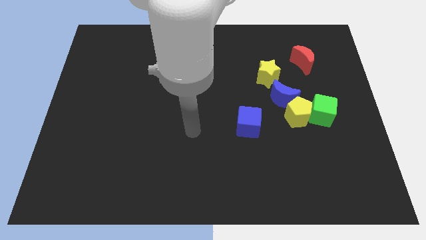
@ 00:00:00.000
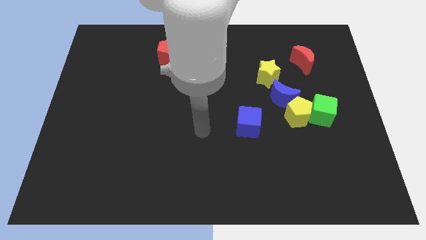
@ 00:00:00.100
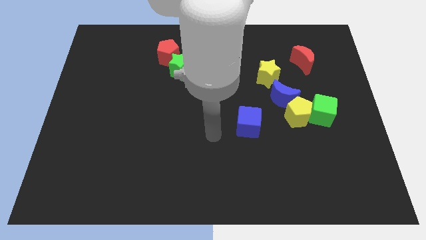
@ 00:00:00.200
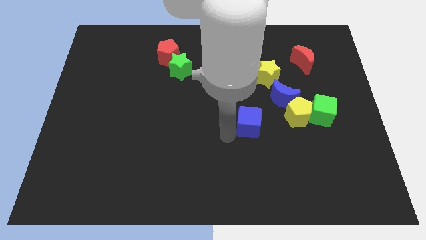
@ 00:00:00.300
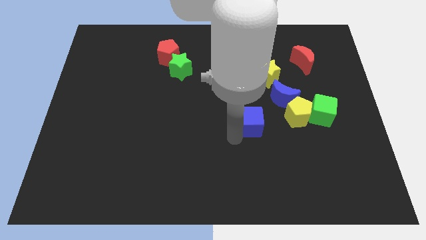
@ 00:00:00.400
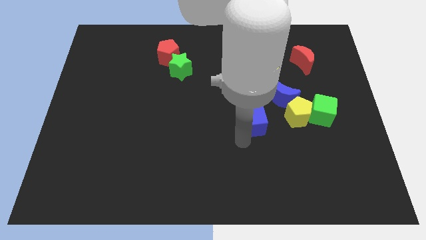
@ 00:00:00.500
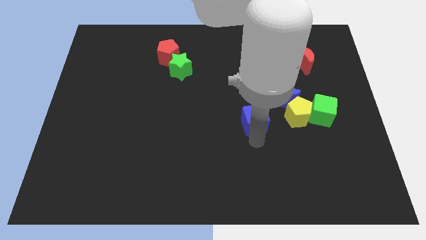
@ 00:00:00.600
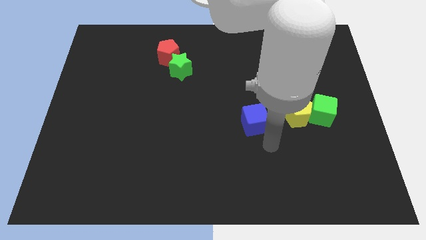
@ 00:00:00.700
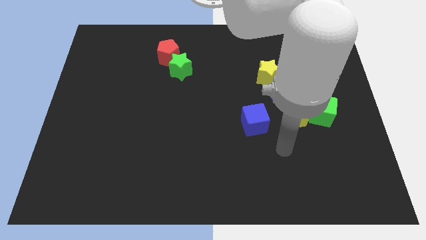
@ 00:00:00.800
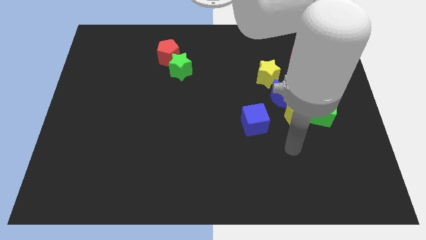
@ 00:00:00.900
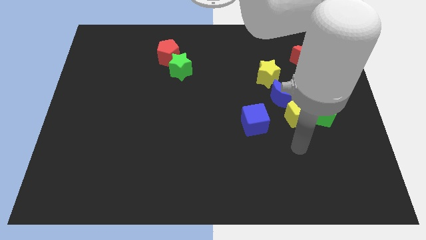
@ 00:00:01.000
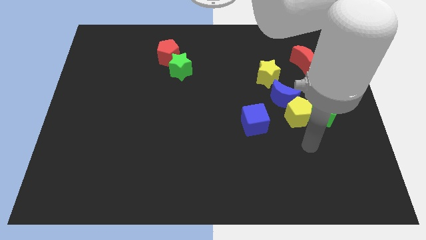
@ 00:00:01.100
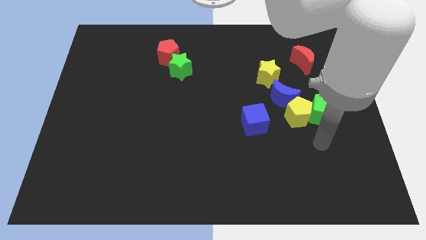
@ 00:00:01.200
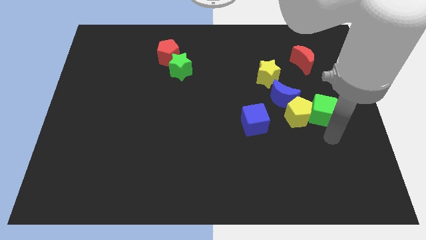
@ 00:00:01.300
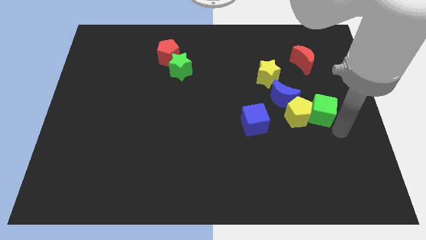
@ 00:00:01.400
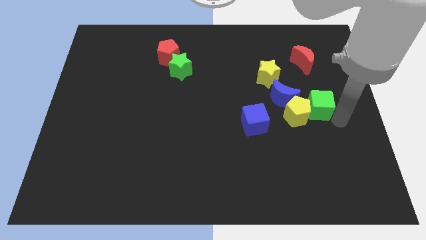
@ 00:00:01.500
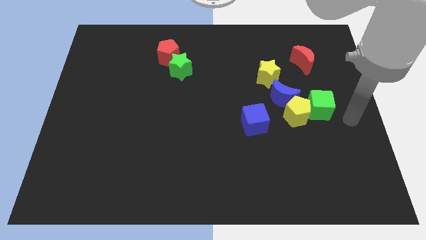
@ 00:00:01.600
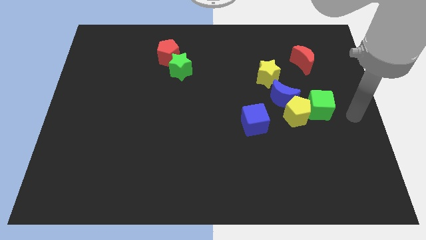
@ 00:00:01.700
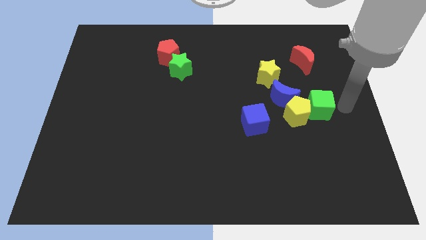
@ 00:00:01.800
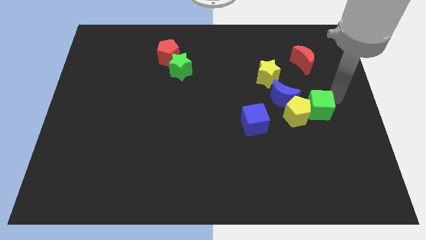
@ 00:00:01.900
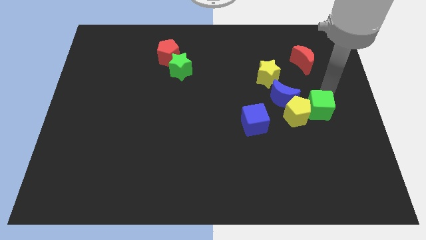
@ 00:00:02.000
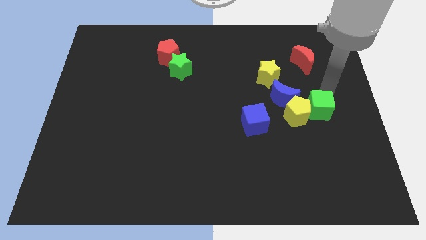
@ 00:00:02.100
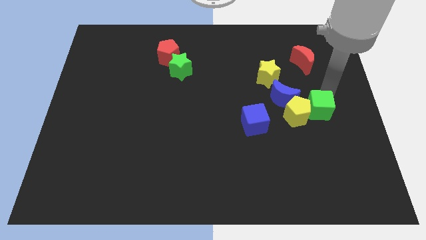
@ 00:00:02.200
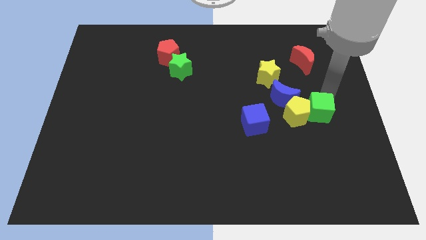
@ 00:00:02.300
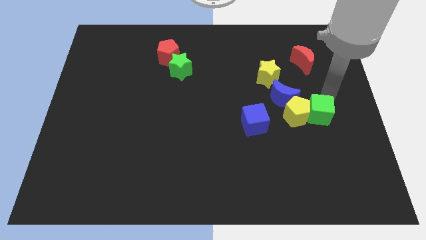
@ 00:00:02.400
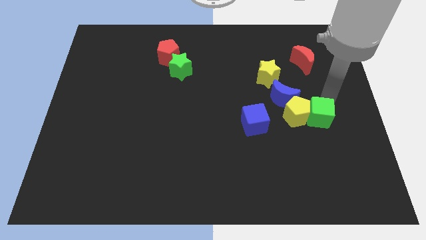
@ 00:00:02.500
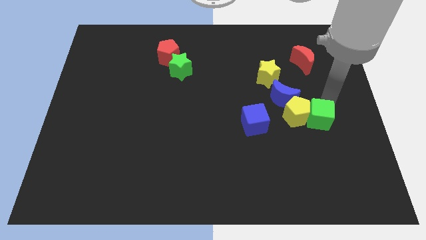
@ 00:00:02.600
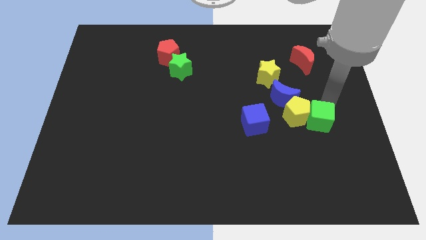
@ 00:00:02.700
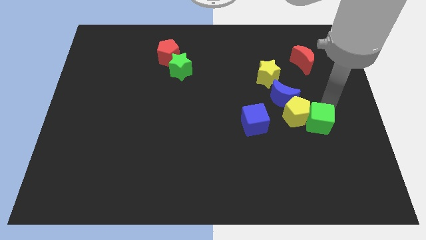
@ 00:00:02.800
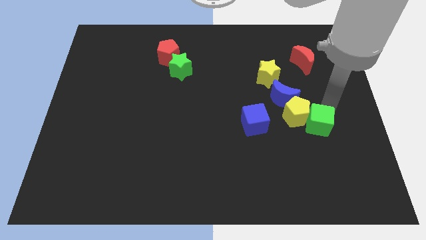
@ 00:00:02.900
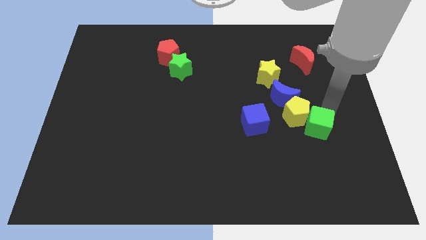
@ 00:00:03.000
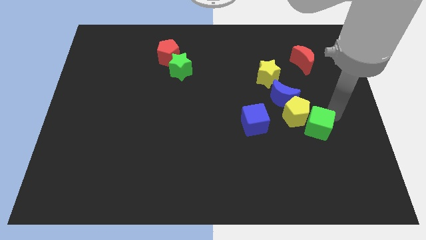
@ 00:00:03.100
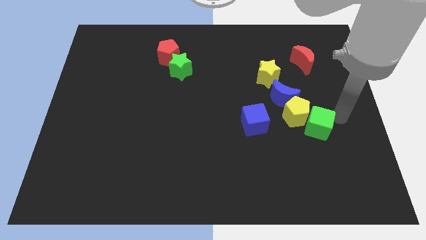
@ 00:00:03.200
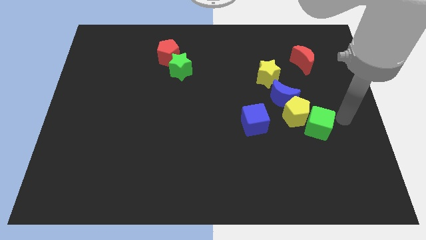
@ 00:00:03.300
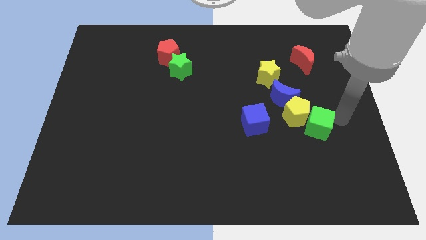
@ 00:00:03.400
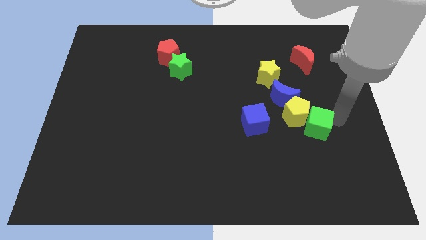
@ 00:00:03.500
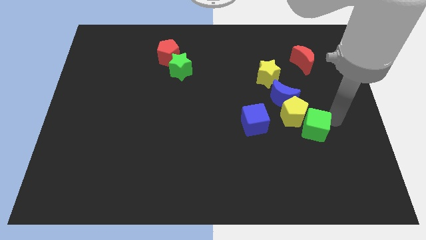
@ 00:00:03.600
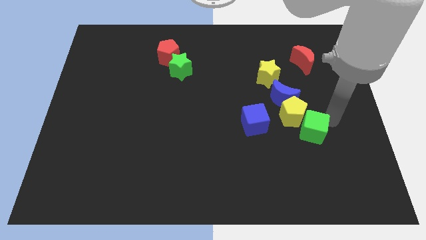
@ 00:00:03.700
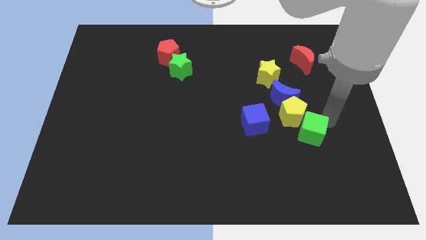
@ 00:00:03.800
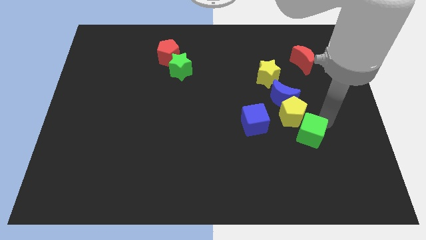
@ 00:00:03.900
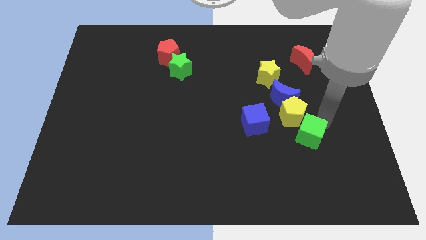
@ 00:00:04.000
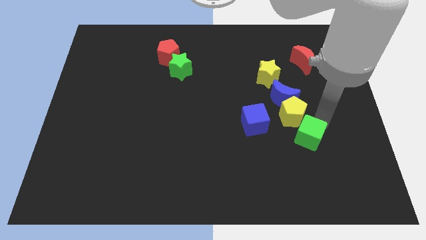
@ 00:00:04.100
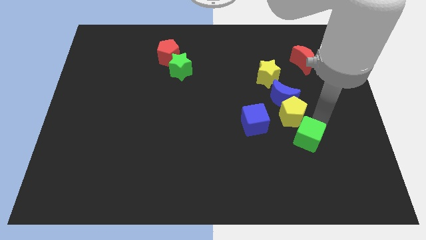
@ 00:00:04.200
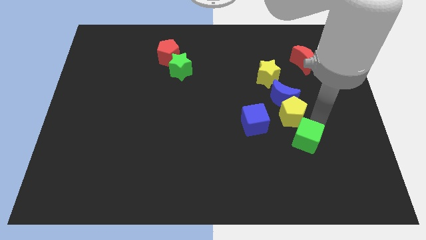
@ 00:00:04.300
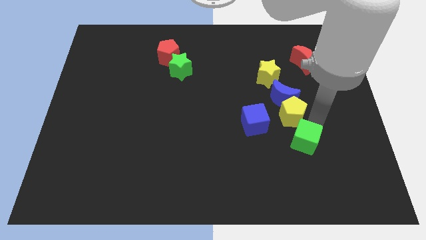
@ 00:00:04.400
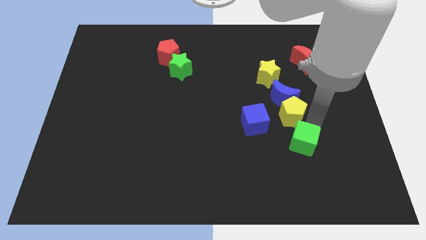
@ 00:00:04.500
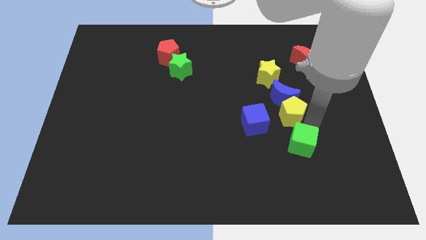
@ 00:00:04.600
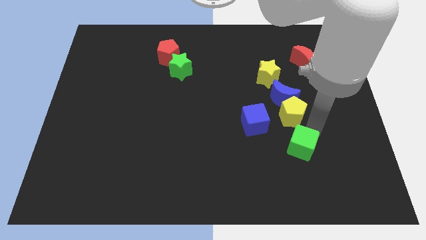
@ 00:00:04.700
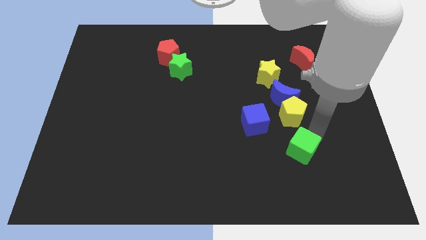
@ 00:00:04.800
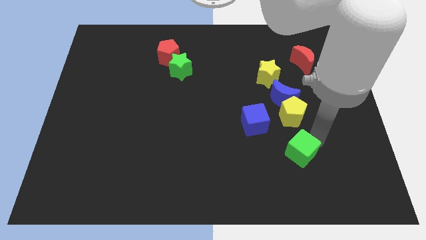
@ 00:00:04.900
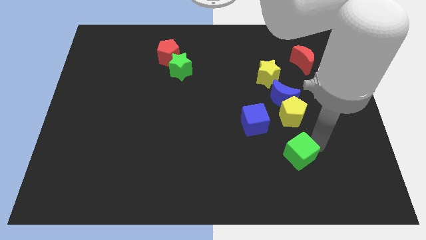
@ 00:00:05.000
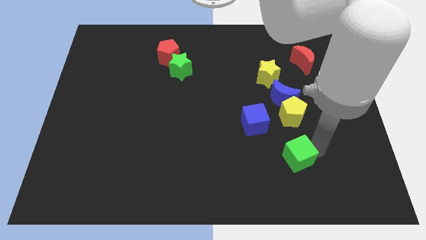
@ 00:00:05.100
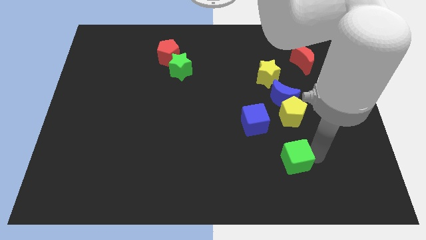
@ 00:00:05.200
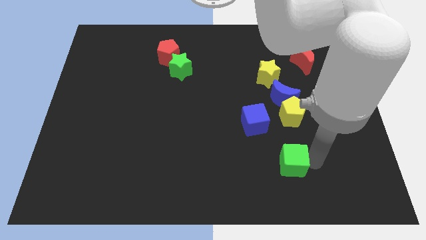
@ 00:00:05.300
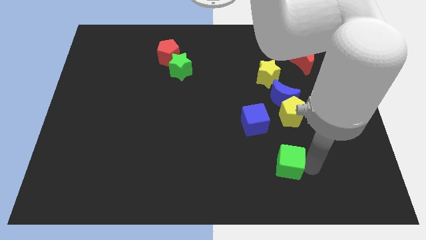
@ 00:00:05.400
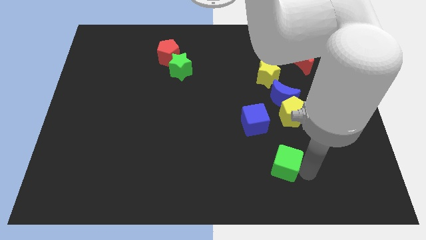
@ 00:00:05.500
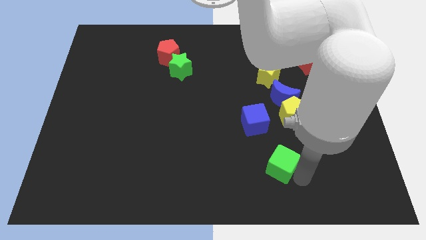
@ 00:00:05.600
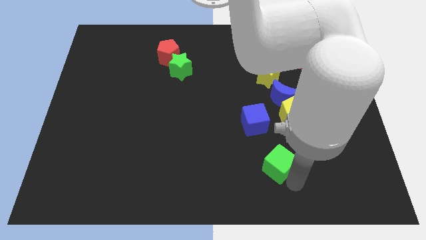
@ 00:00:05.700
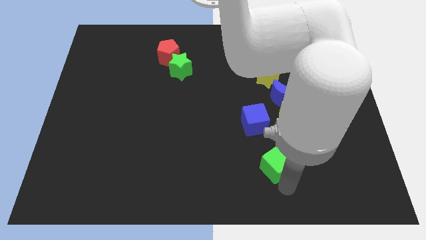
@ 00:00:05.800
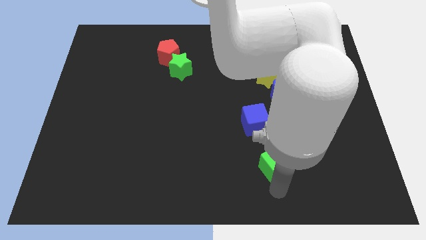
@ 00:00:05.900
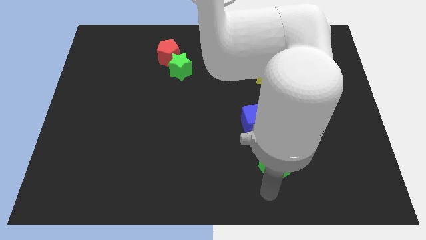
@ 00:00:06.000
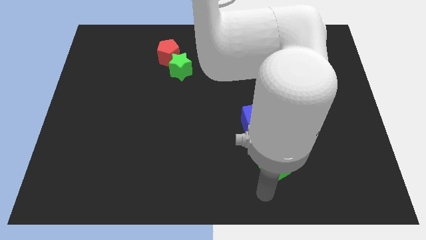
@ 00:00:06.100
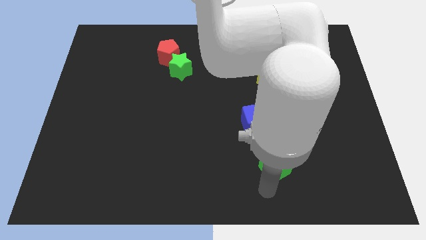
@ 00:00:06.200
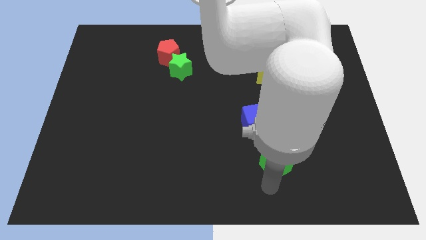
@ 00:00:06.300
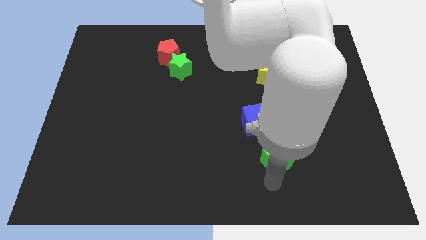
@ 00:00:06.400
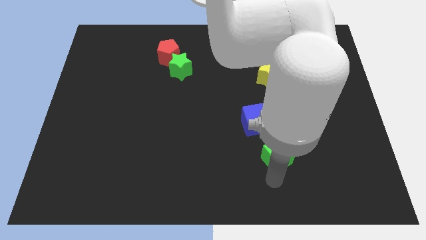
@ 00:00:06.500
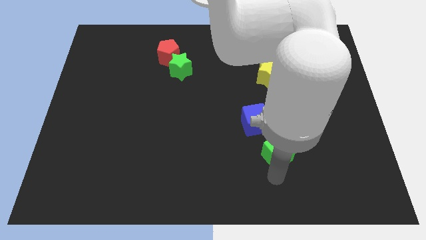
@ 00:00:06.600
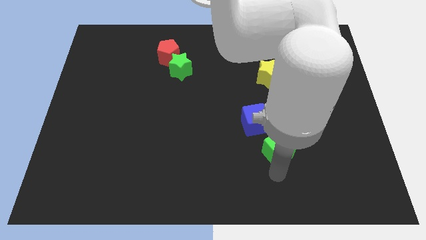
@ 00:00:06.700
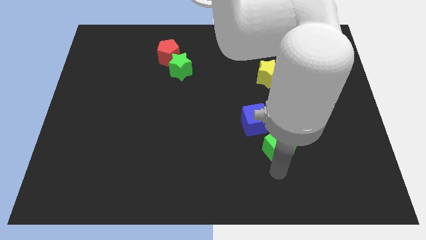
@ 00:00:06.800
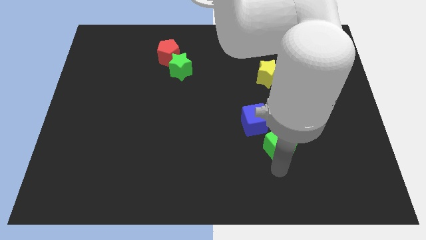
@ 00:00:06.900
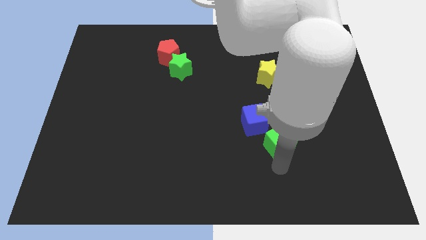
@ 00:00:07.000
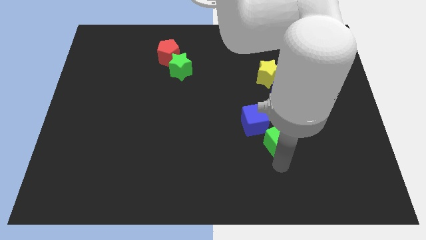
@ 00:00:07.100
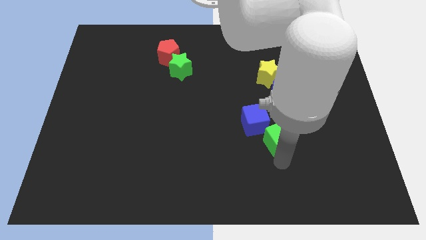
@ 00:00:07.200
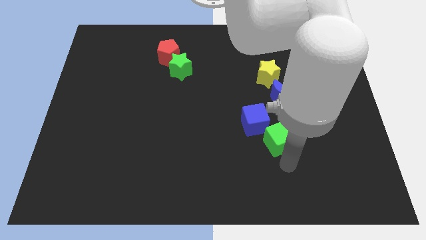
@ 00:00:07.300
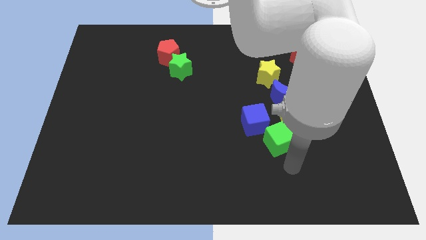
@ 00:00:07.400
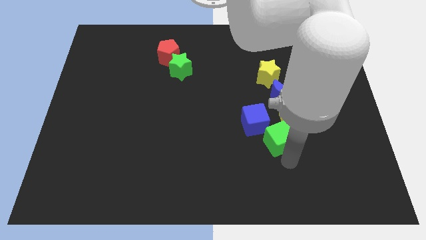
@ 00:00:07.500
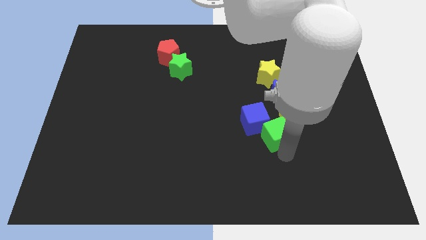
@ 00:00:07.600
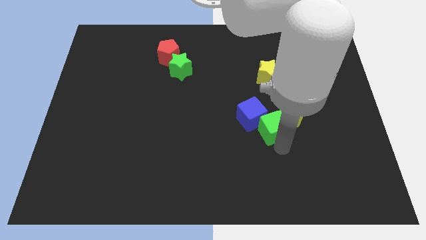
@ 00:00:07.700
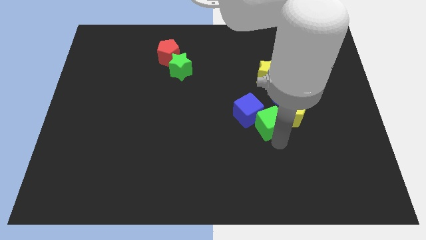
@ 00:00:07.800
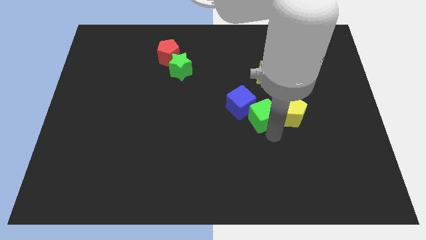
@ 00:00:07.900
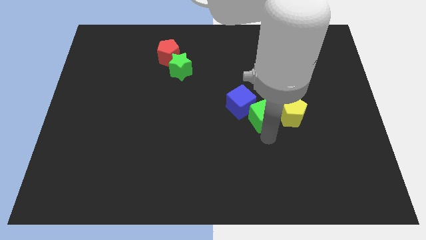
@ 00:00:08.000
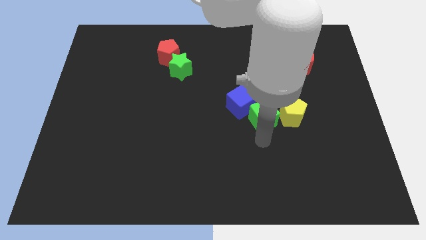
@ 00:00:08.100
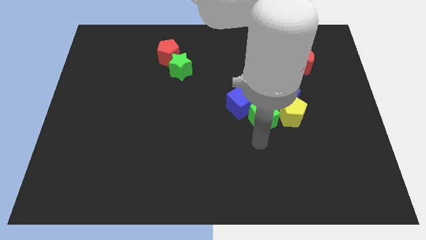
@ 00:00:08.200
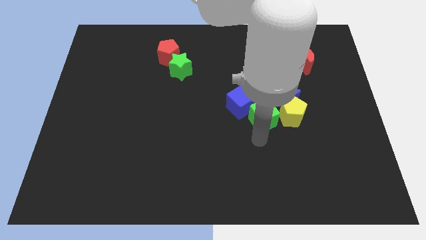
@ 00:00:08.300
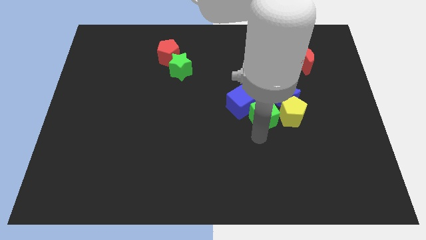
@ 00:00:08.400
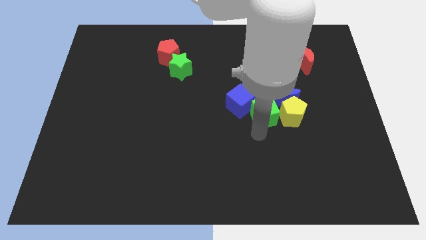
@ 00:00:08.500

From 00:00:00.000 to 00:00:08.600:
put the green cube to the top left side of the yellow pentagon
